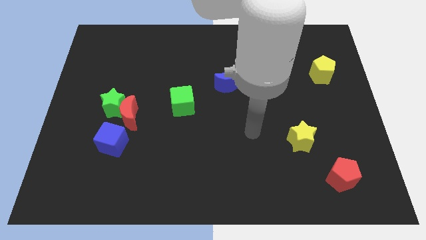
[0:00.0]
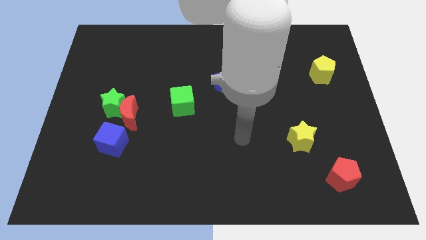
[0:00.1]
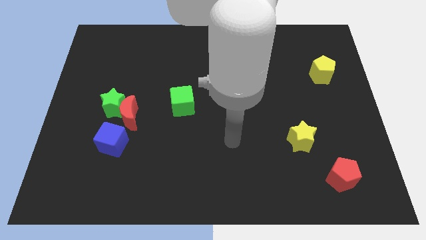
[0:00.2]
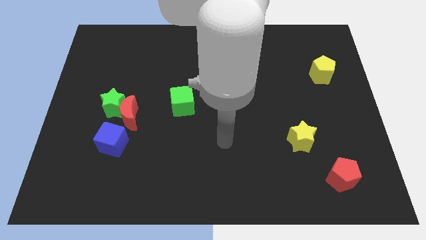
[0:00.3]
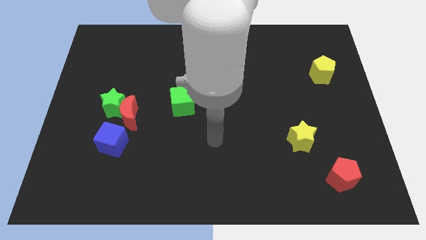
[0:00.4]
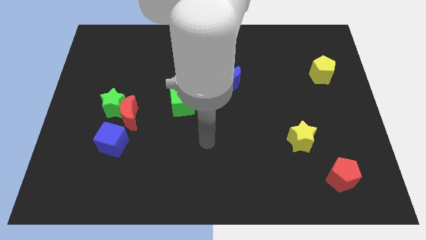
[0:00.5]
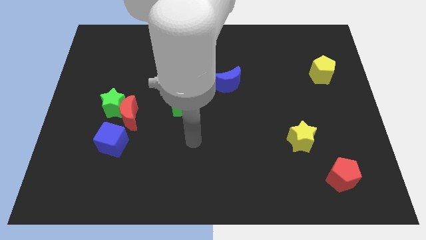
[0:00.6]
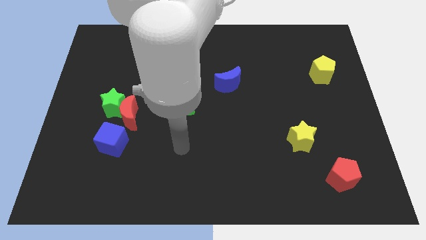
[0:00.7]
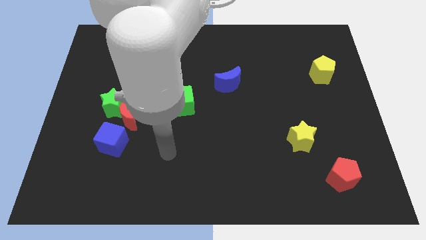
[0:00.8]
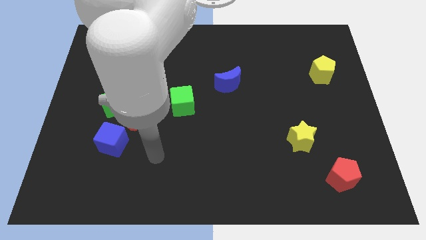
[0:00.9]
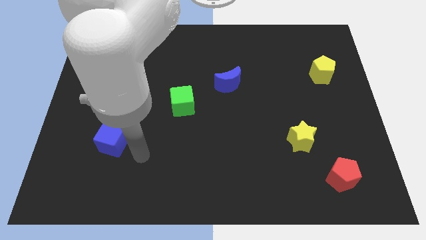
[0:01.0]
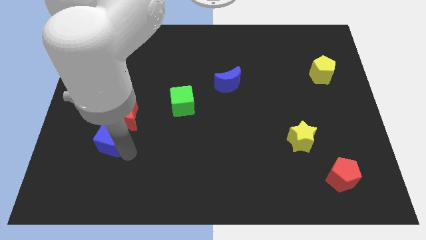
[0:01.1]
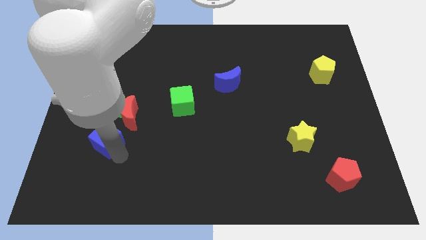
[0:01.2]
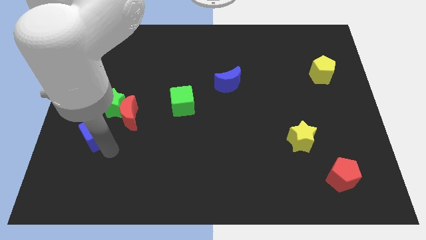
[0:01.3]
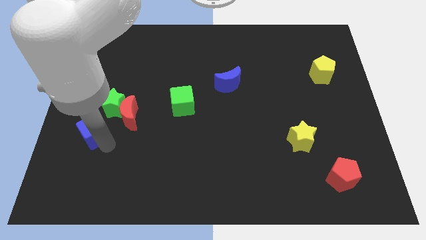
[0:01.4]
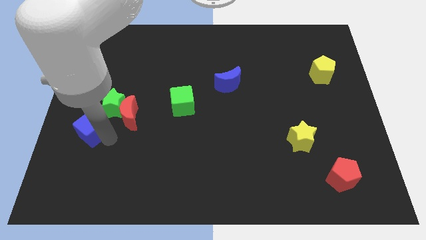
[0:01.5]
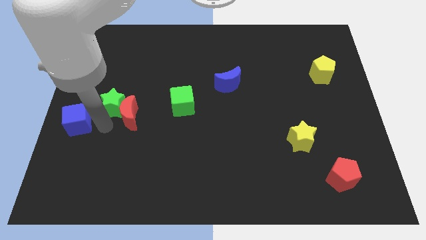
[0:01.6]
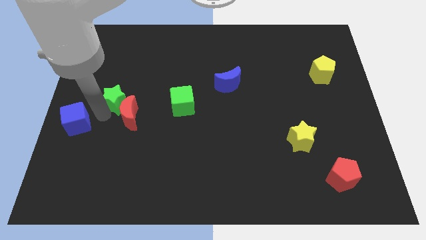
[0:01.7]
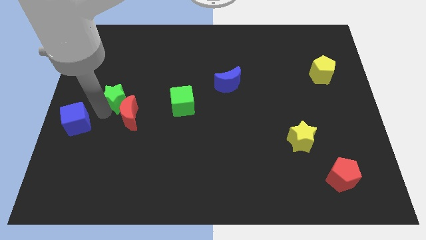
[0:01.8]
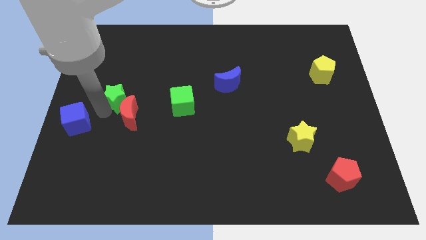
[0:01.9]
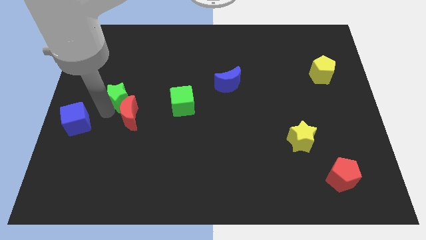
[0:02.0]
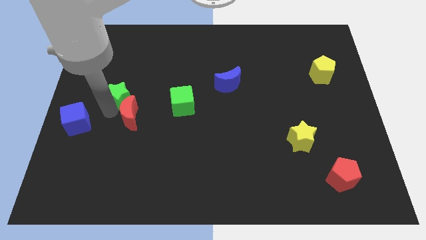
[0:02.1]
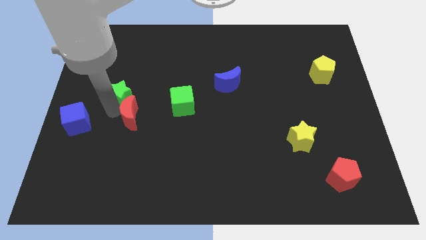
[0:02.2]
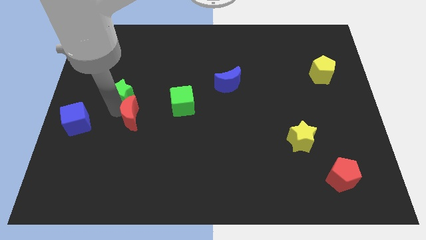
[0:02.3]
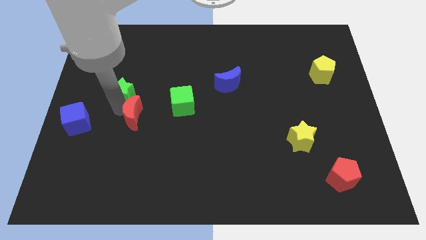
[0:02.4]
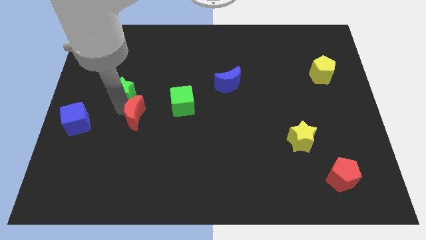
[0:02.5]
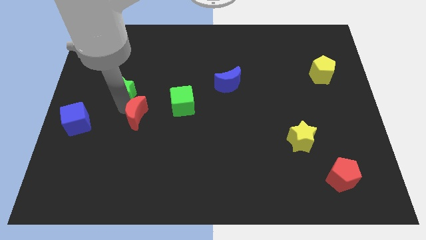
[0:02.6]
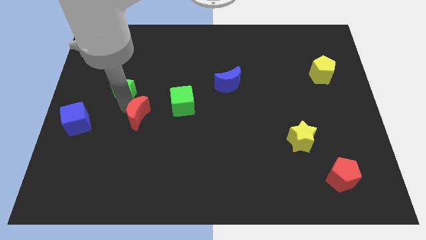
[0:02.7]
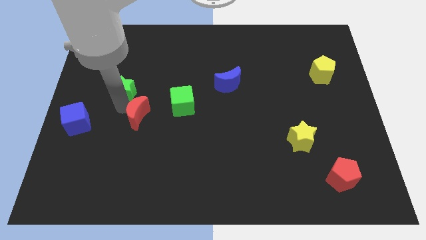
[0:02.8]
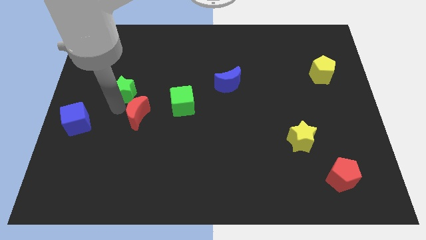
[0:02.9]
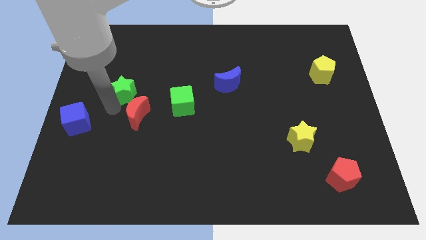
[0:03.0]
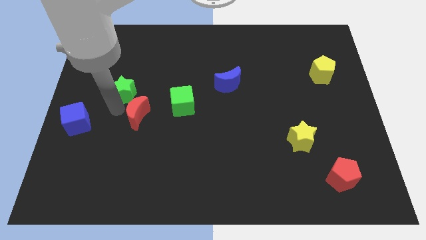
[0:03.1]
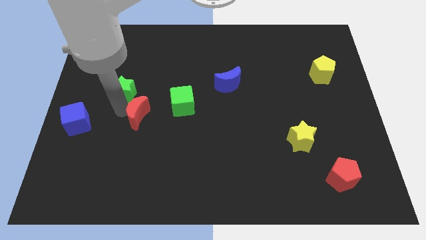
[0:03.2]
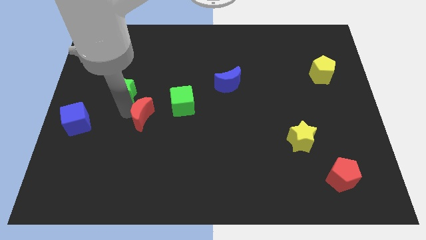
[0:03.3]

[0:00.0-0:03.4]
move the red moon away from the green star and blue cube

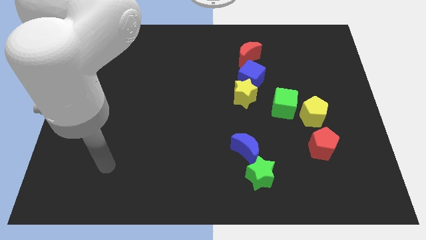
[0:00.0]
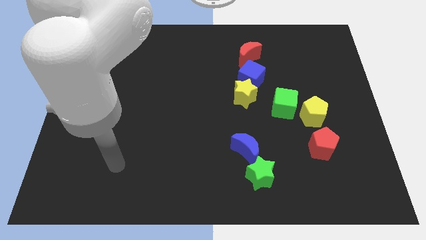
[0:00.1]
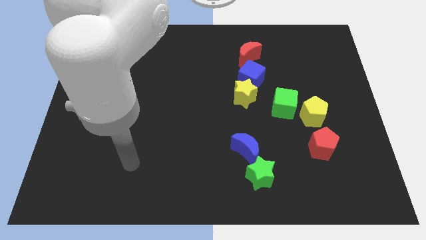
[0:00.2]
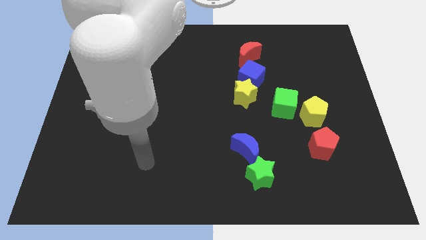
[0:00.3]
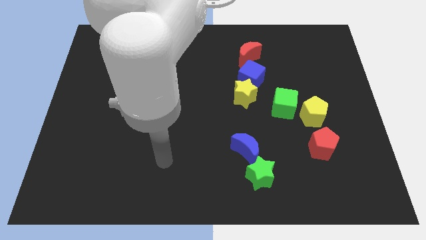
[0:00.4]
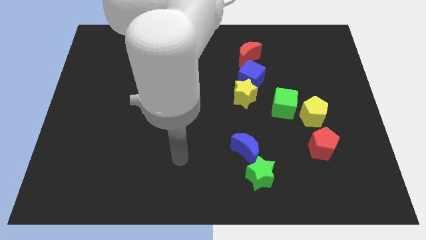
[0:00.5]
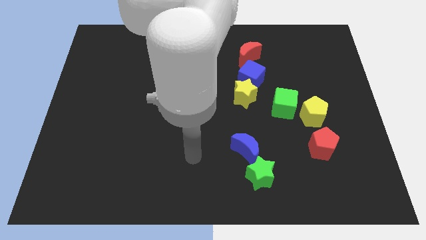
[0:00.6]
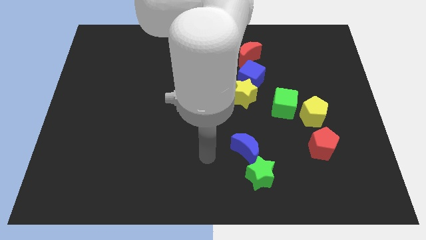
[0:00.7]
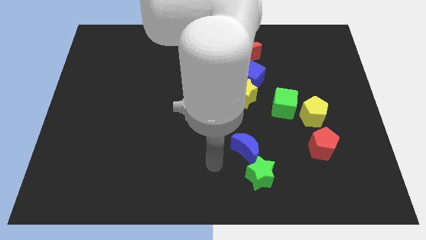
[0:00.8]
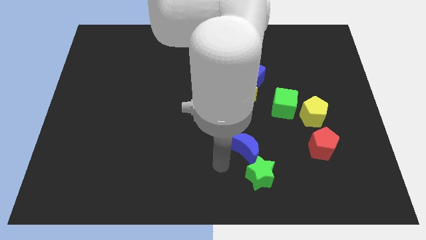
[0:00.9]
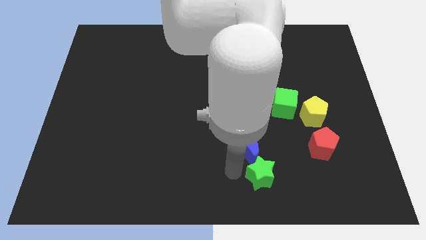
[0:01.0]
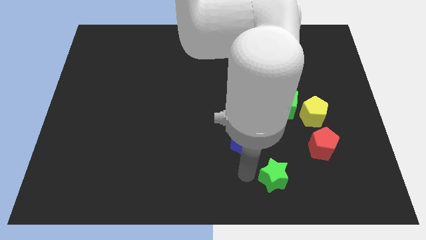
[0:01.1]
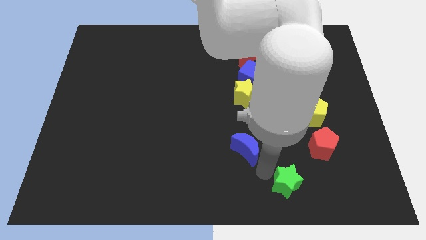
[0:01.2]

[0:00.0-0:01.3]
move the blue moon away from the green star

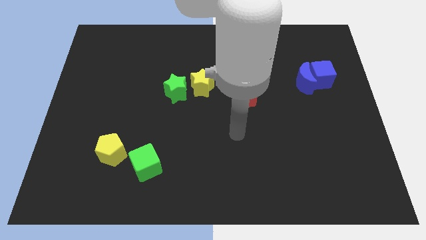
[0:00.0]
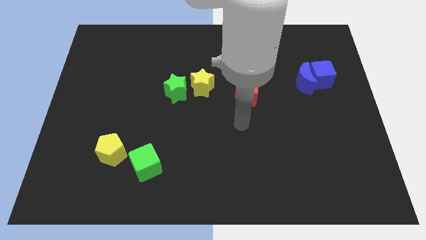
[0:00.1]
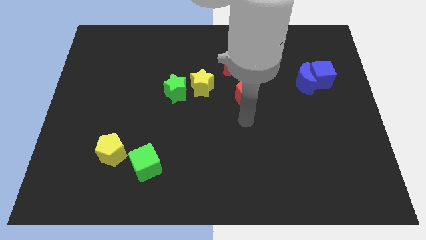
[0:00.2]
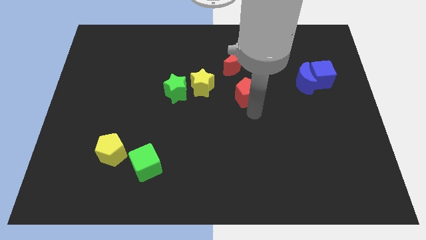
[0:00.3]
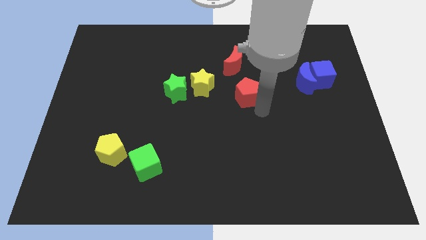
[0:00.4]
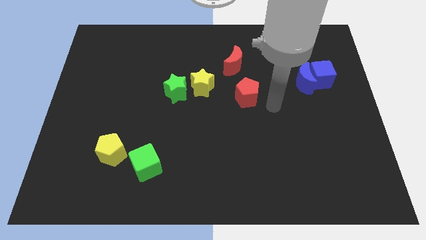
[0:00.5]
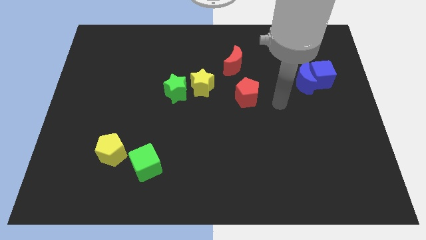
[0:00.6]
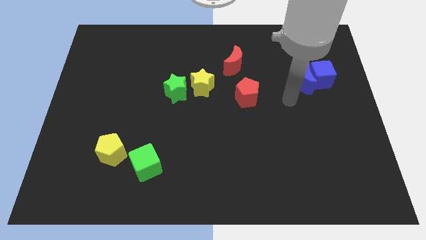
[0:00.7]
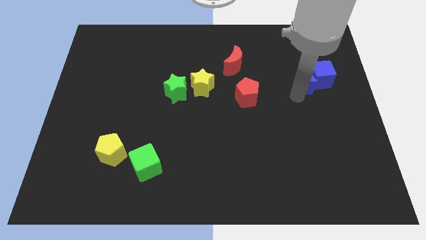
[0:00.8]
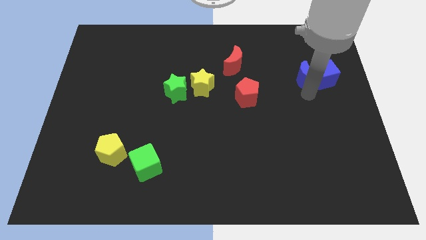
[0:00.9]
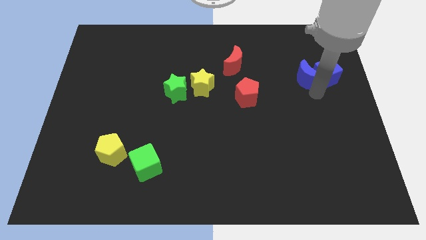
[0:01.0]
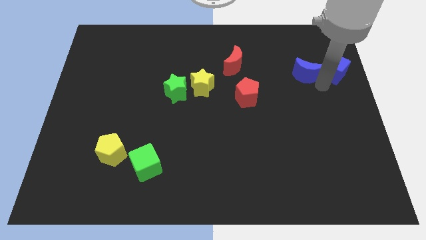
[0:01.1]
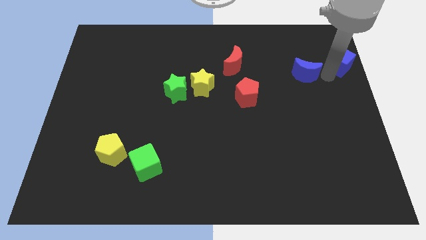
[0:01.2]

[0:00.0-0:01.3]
separate the blue moon from the blue cube

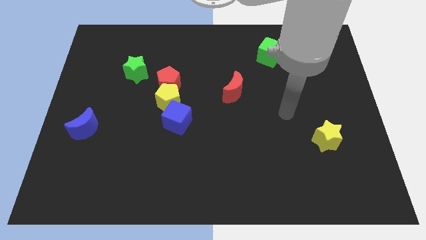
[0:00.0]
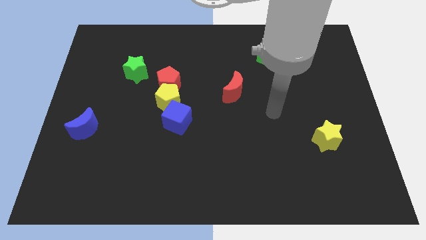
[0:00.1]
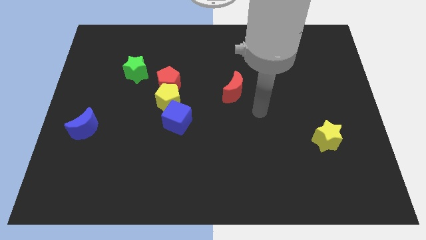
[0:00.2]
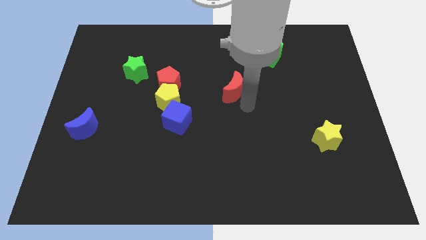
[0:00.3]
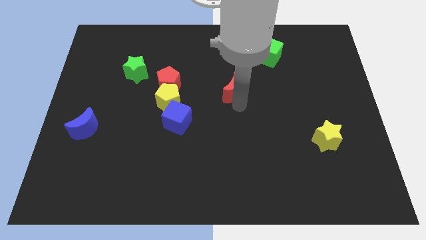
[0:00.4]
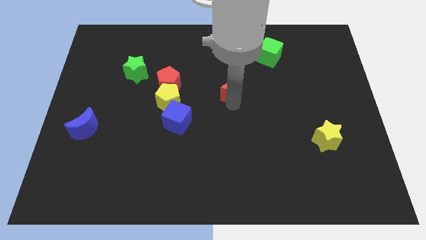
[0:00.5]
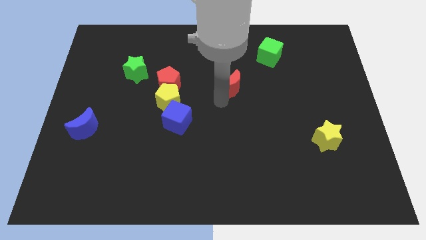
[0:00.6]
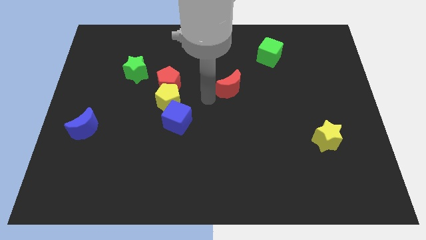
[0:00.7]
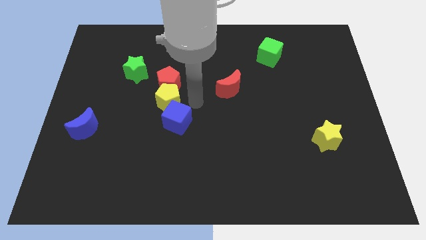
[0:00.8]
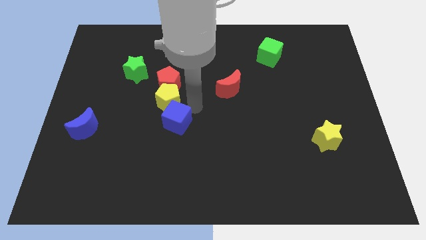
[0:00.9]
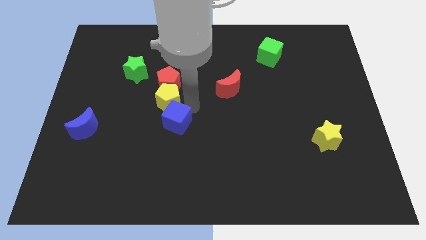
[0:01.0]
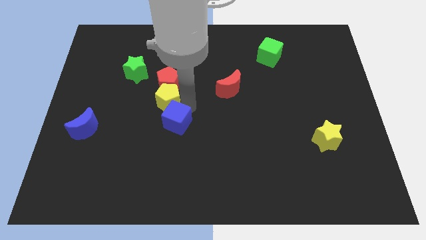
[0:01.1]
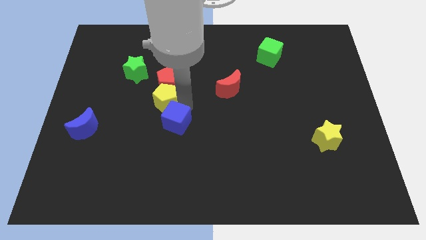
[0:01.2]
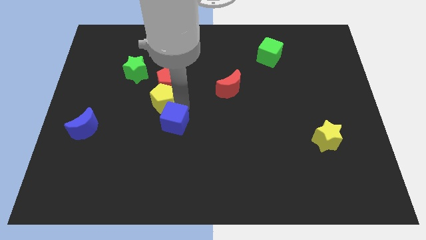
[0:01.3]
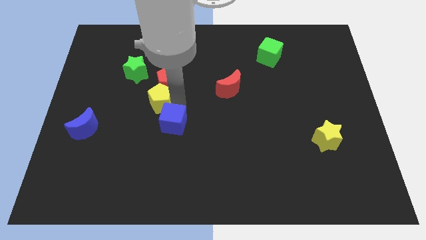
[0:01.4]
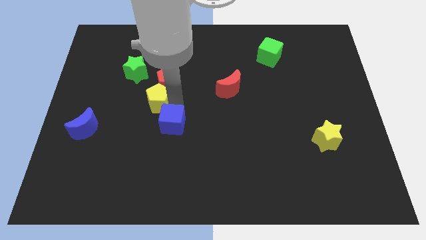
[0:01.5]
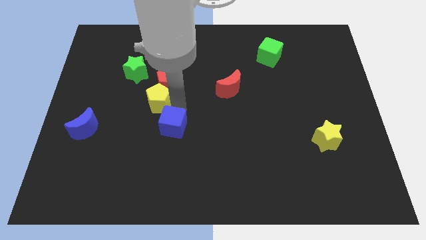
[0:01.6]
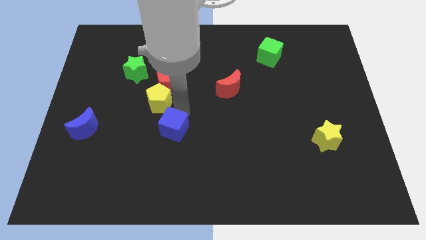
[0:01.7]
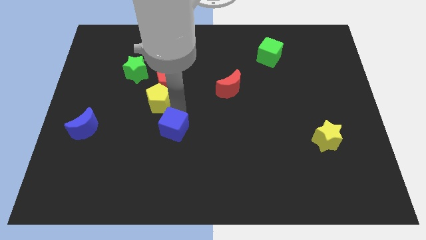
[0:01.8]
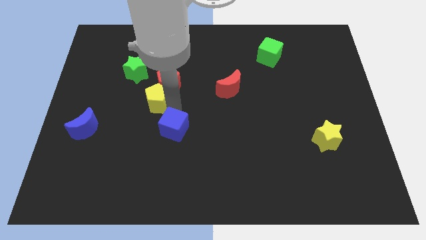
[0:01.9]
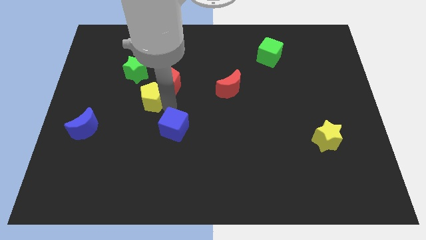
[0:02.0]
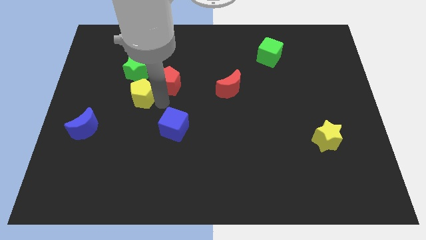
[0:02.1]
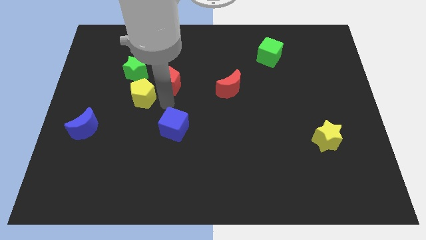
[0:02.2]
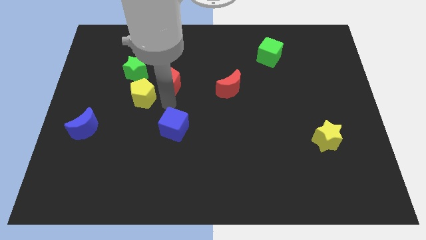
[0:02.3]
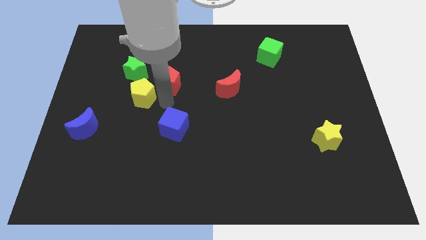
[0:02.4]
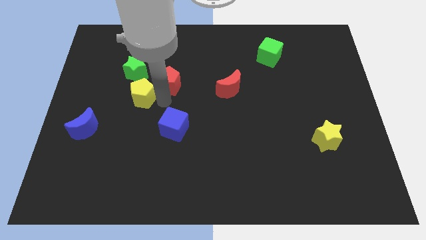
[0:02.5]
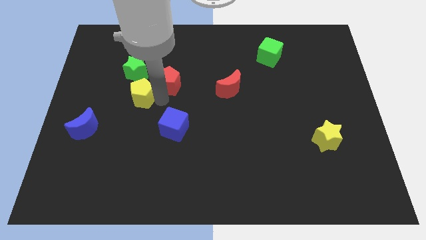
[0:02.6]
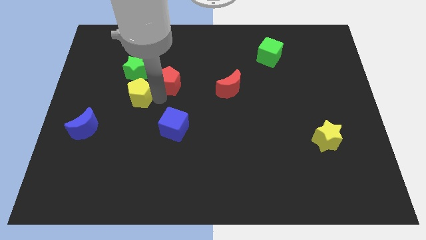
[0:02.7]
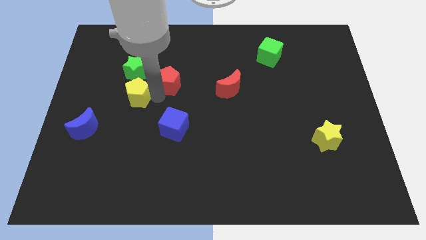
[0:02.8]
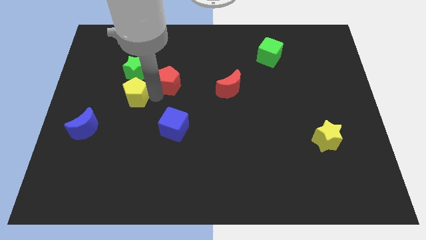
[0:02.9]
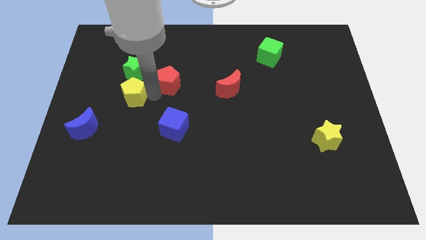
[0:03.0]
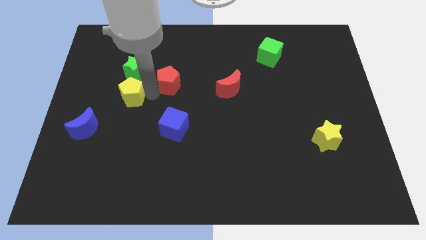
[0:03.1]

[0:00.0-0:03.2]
move the yellow pentagon away from the red pentagon and blue cube

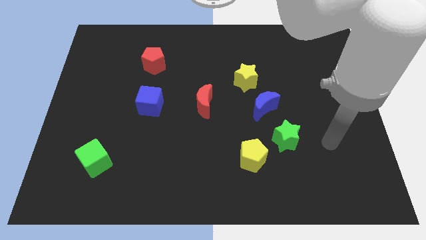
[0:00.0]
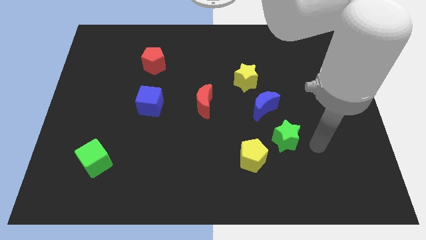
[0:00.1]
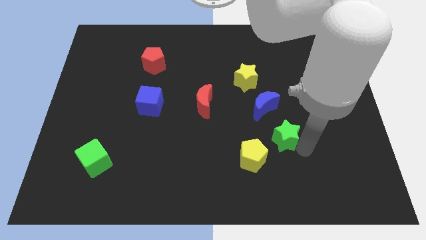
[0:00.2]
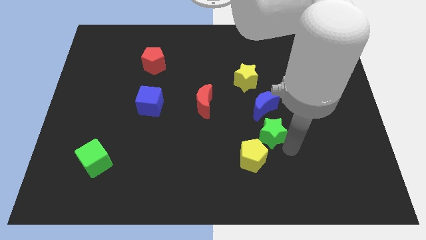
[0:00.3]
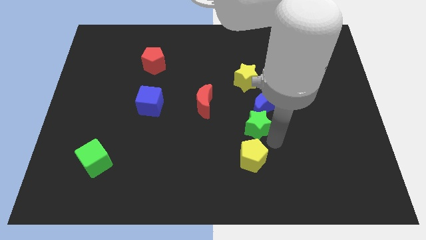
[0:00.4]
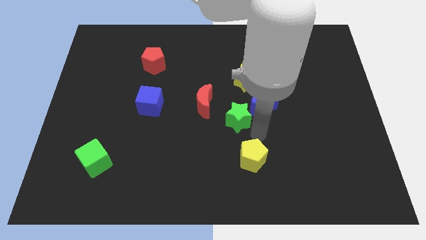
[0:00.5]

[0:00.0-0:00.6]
separate the yellow pentagon from the green star
